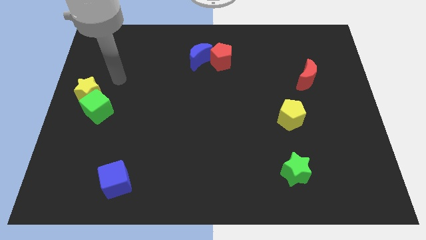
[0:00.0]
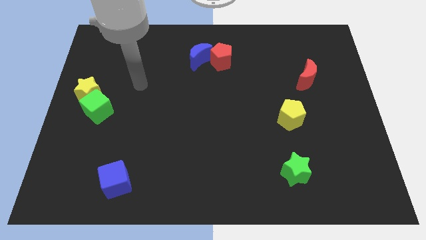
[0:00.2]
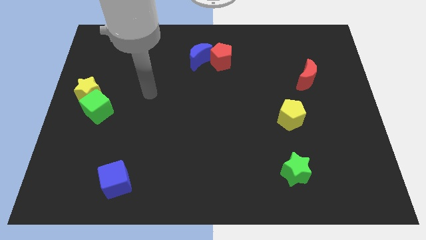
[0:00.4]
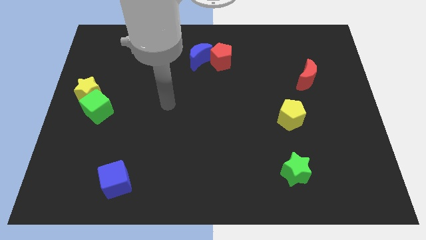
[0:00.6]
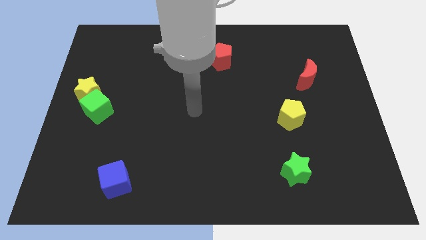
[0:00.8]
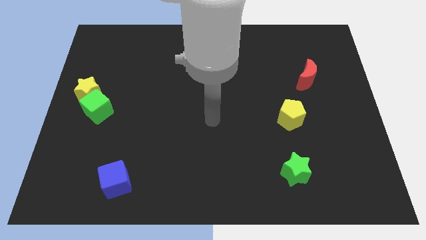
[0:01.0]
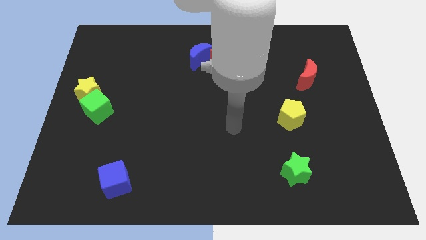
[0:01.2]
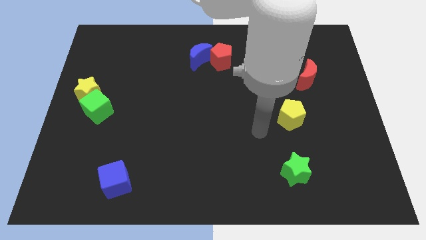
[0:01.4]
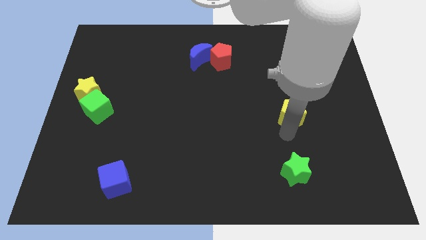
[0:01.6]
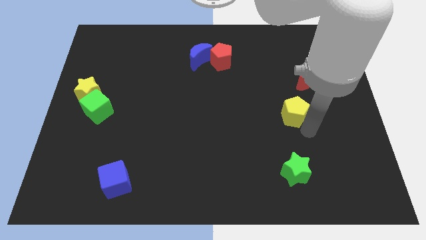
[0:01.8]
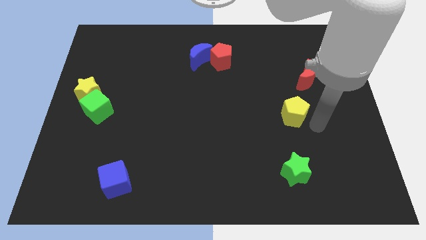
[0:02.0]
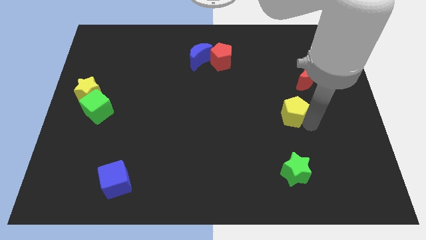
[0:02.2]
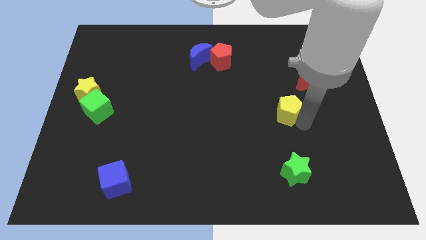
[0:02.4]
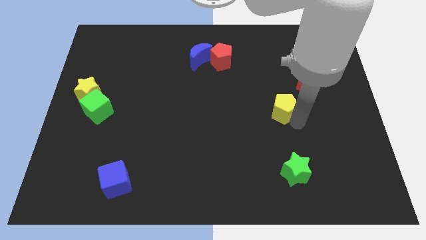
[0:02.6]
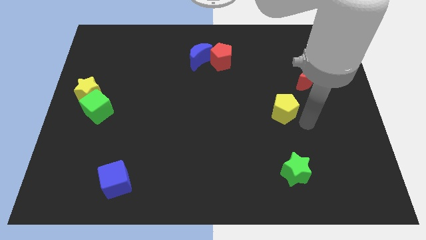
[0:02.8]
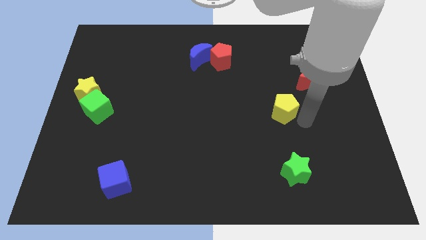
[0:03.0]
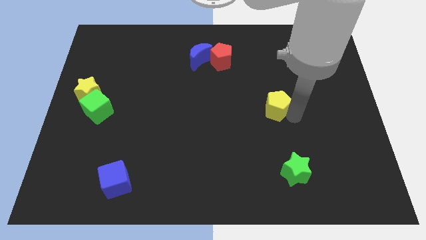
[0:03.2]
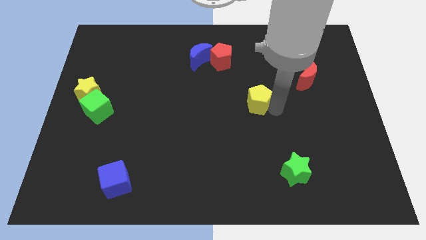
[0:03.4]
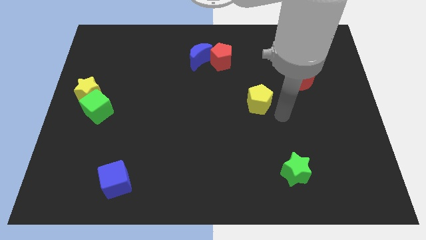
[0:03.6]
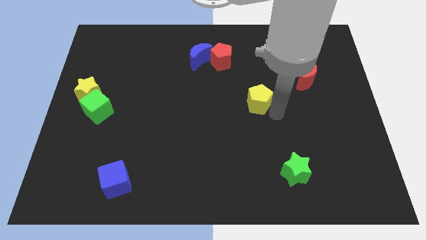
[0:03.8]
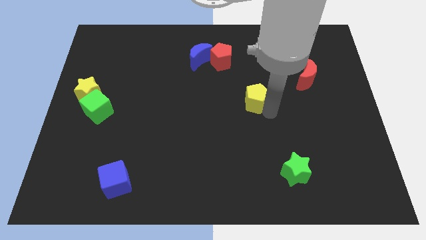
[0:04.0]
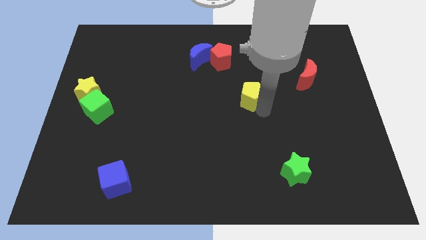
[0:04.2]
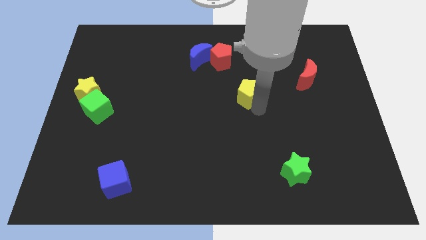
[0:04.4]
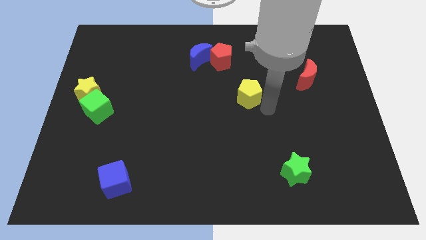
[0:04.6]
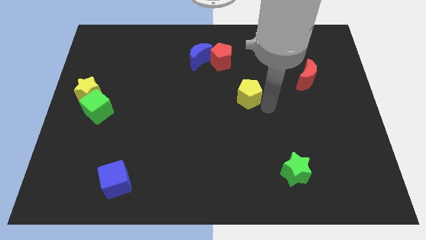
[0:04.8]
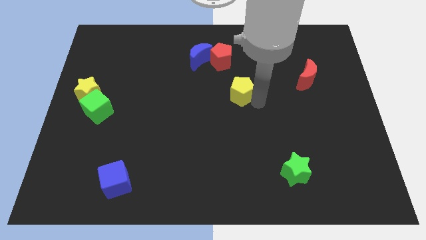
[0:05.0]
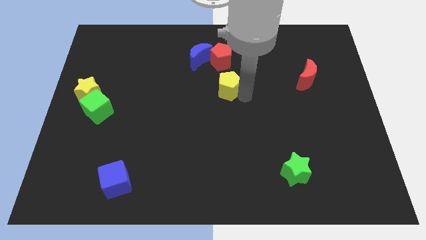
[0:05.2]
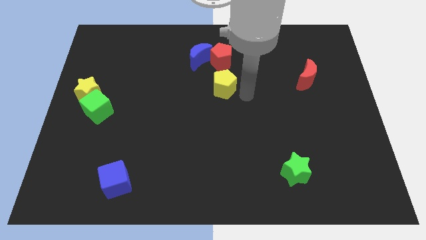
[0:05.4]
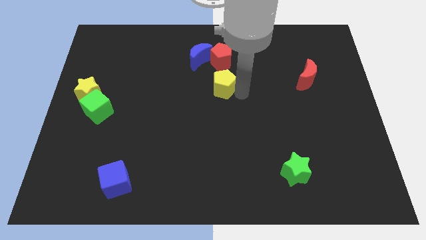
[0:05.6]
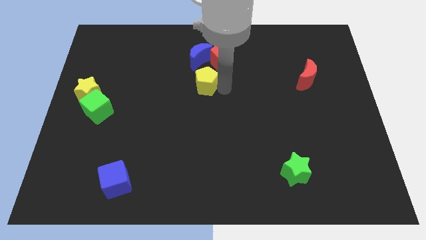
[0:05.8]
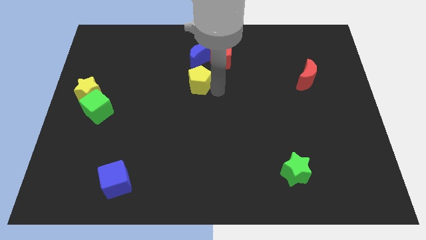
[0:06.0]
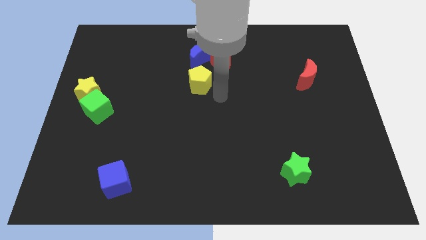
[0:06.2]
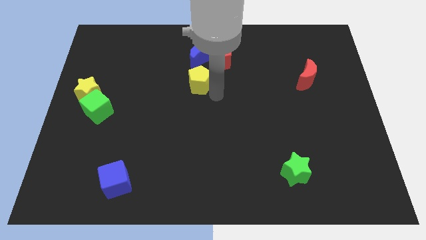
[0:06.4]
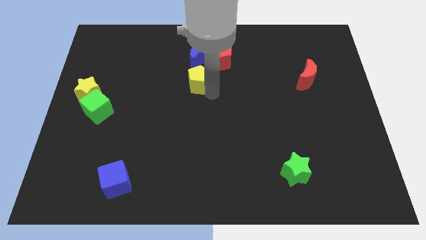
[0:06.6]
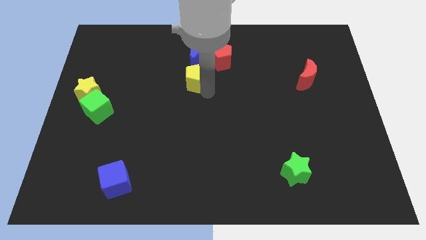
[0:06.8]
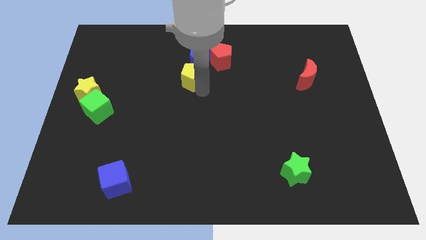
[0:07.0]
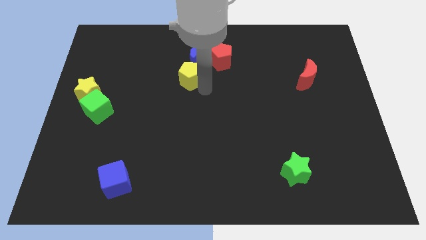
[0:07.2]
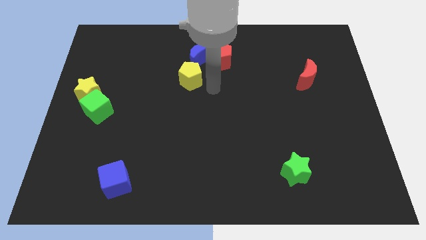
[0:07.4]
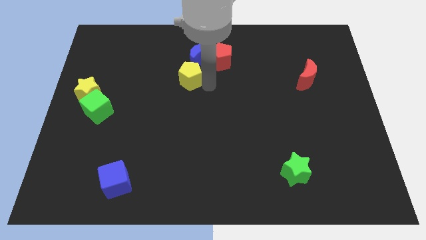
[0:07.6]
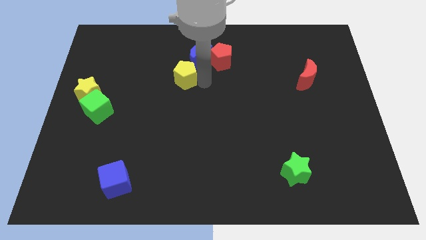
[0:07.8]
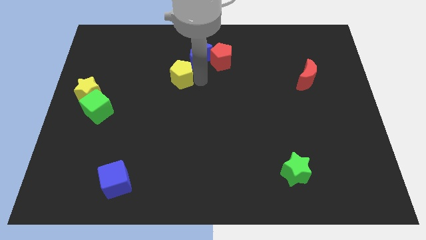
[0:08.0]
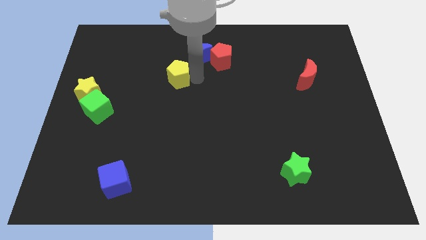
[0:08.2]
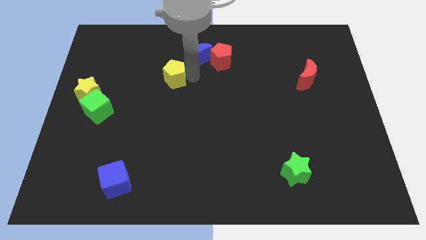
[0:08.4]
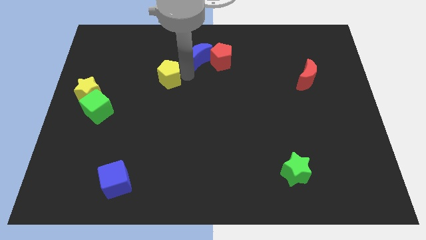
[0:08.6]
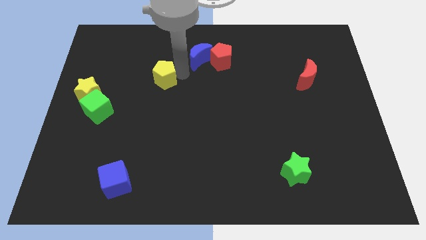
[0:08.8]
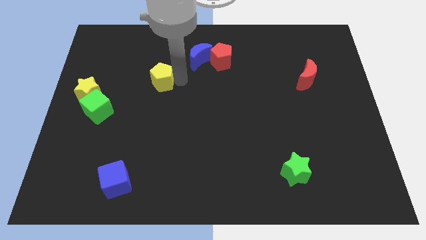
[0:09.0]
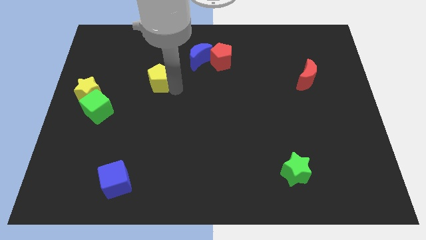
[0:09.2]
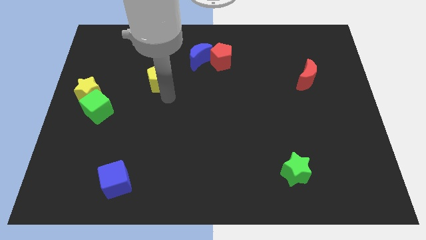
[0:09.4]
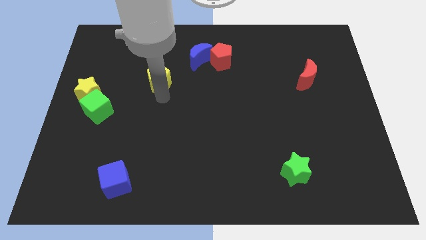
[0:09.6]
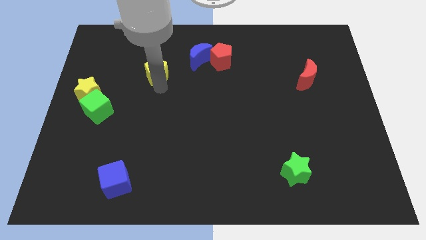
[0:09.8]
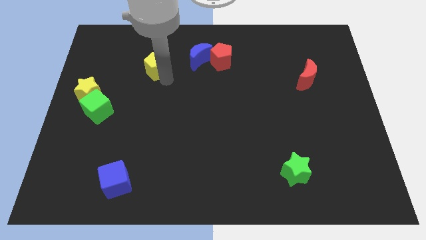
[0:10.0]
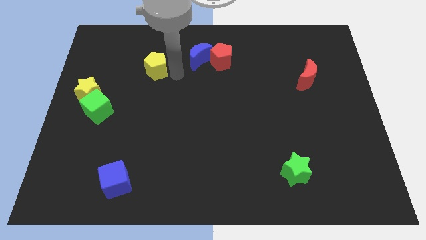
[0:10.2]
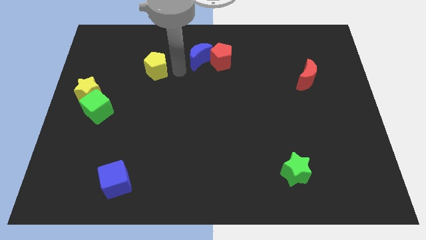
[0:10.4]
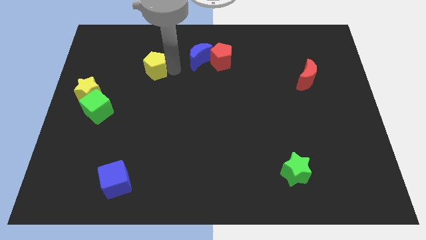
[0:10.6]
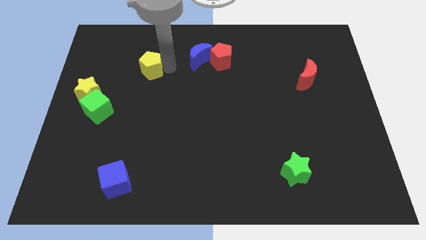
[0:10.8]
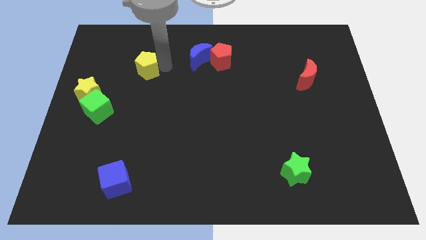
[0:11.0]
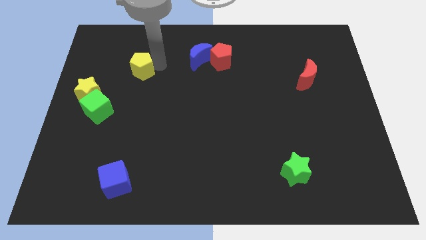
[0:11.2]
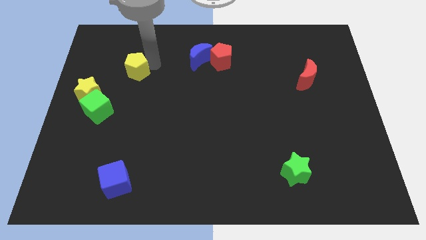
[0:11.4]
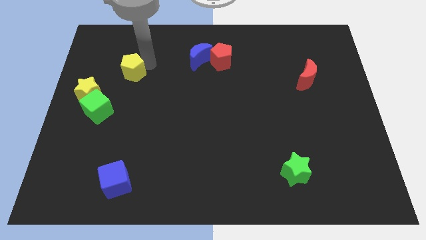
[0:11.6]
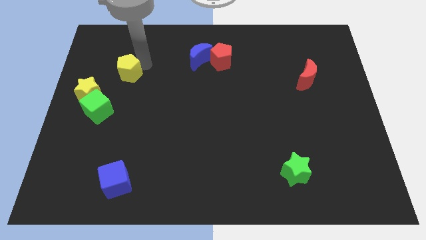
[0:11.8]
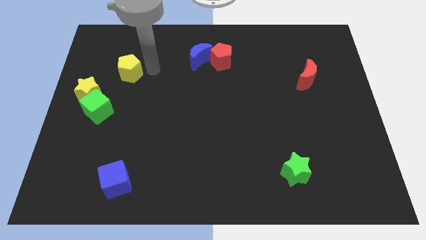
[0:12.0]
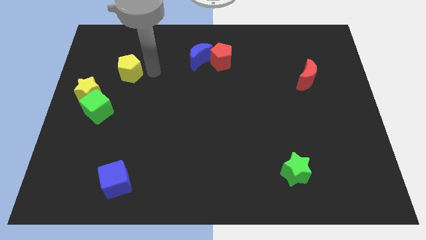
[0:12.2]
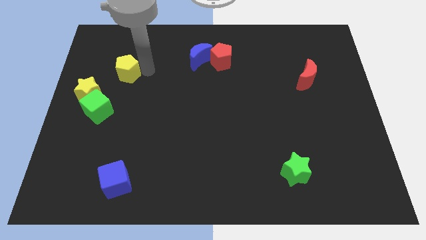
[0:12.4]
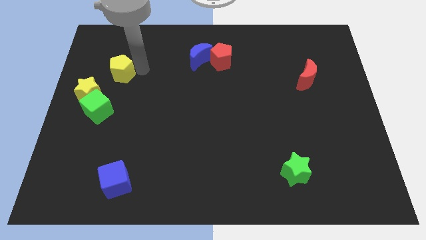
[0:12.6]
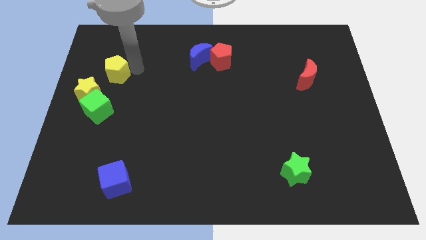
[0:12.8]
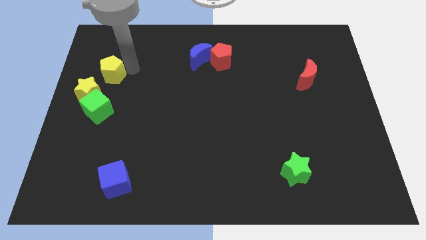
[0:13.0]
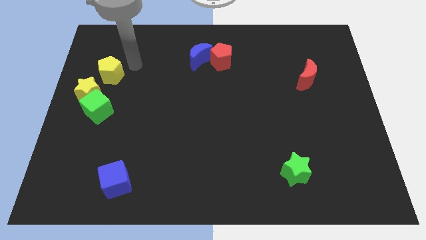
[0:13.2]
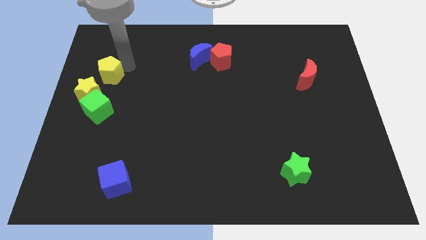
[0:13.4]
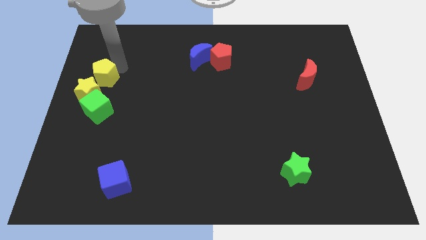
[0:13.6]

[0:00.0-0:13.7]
push the yellow pentagon to the center left

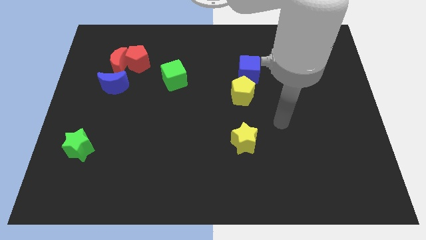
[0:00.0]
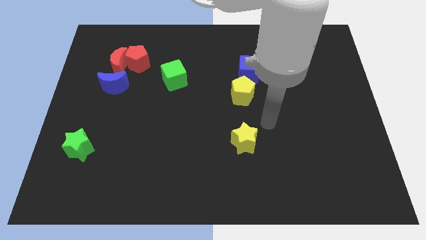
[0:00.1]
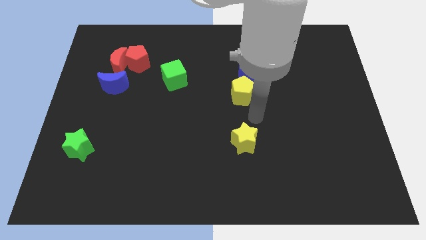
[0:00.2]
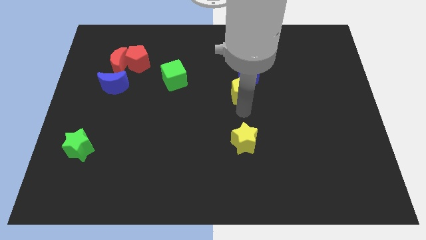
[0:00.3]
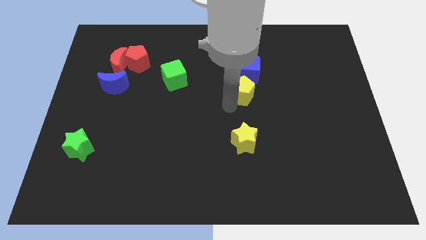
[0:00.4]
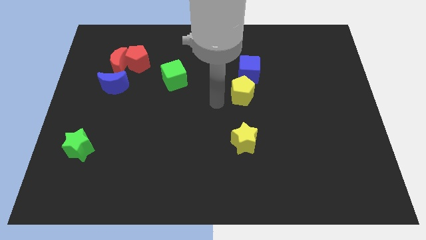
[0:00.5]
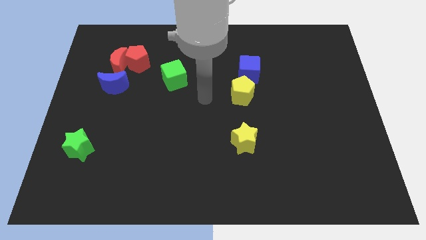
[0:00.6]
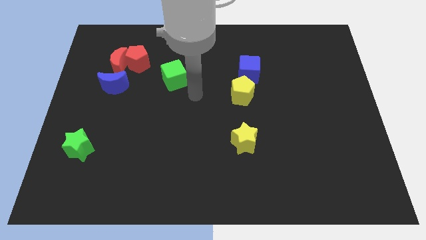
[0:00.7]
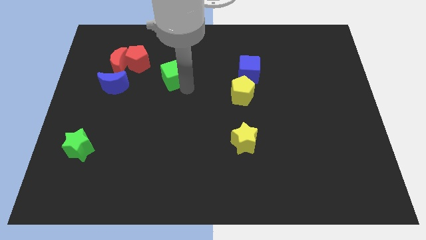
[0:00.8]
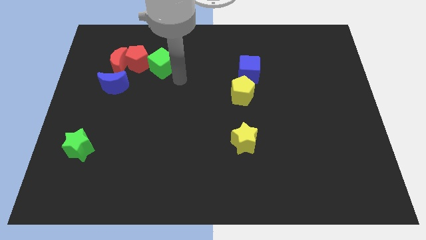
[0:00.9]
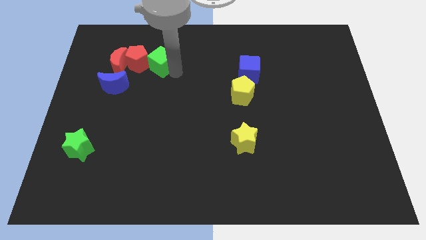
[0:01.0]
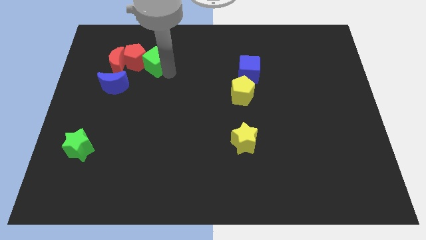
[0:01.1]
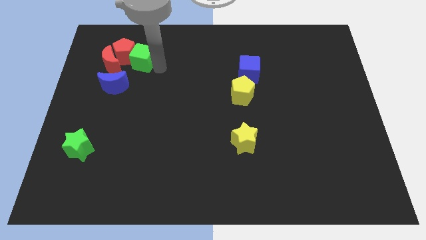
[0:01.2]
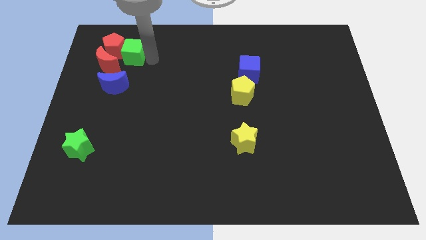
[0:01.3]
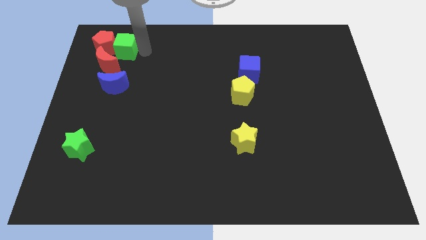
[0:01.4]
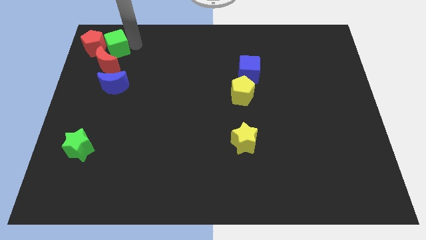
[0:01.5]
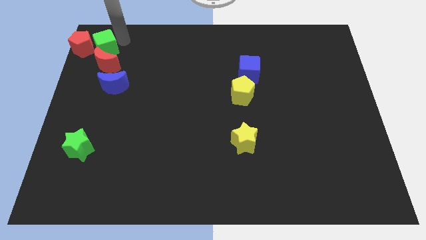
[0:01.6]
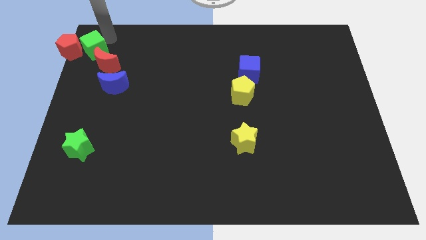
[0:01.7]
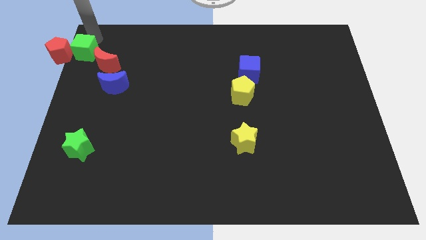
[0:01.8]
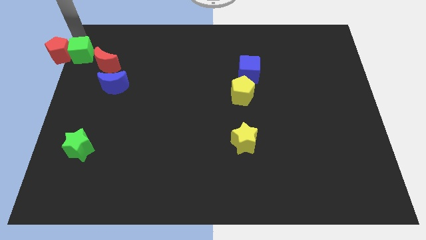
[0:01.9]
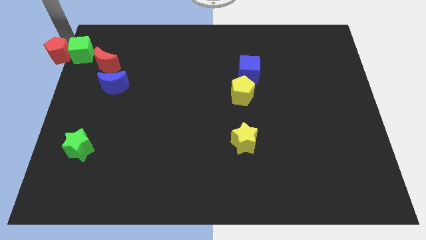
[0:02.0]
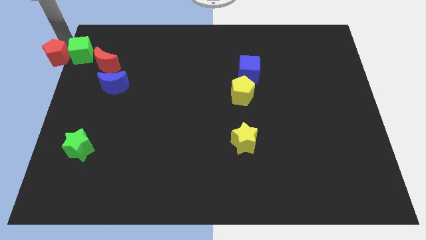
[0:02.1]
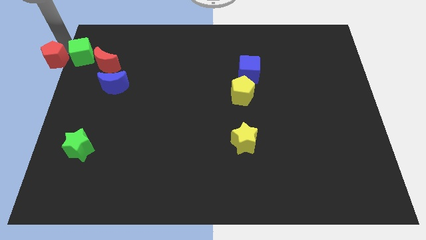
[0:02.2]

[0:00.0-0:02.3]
put the red pentagon to the left side of the board
